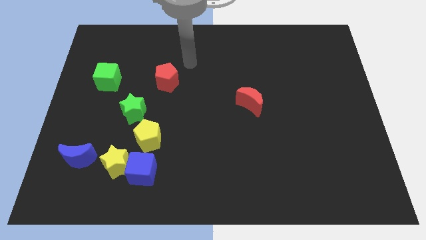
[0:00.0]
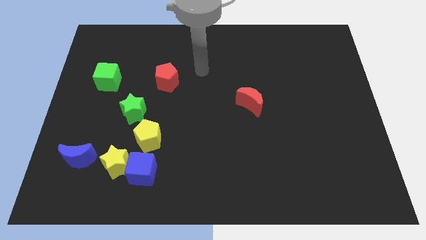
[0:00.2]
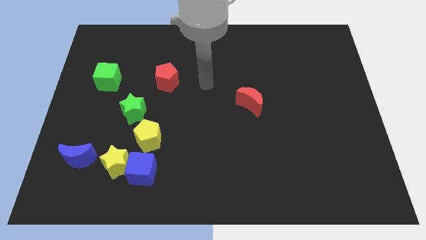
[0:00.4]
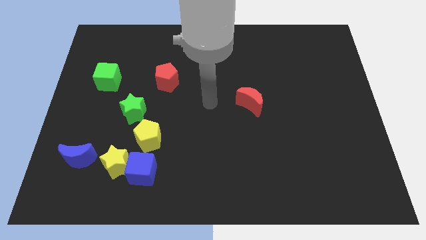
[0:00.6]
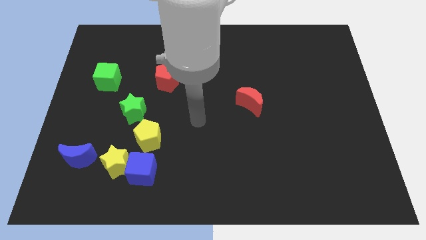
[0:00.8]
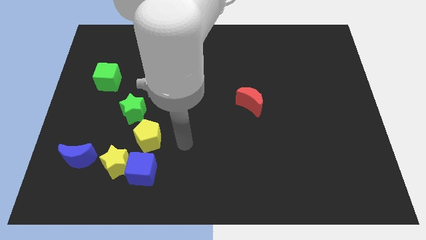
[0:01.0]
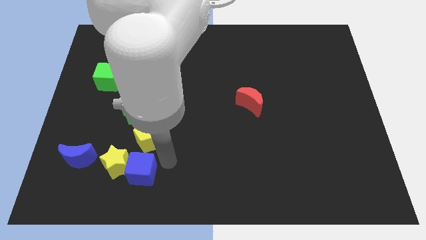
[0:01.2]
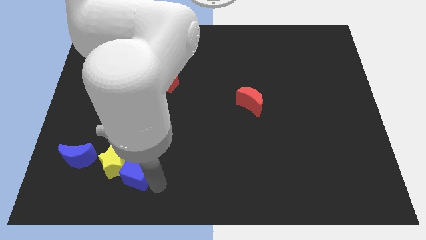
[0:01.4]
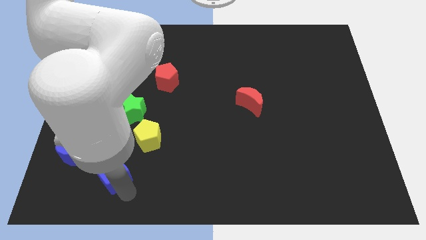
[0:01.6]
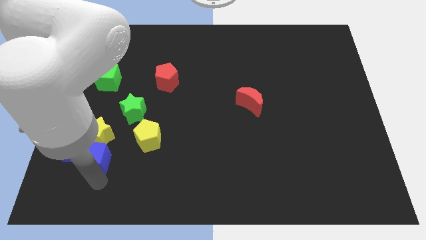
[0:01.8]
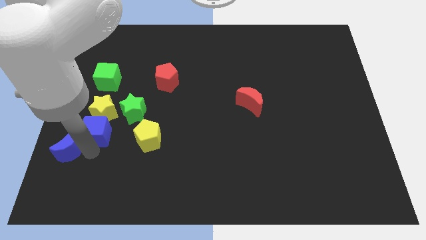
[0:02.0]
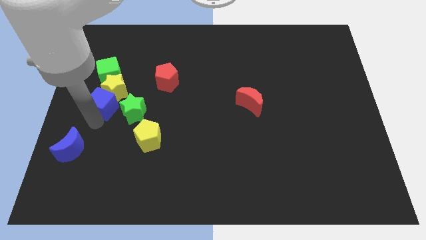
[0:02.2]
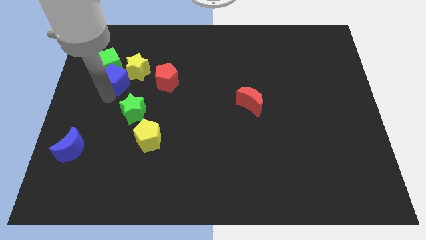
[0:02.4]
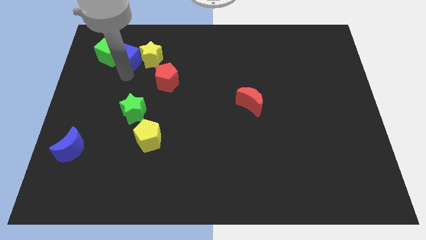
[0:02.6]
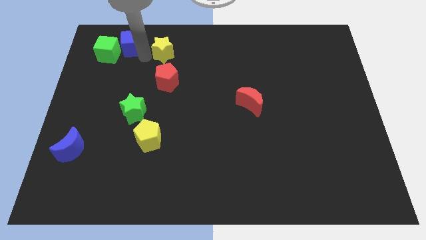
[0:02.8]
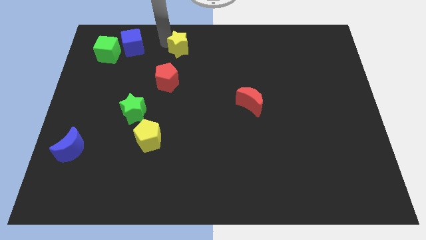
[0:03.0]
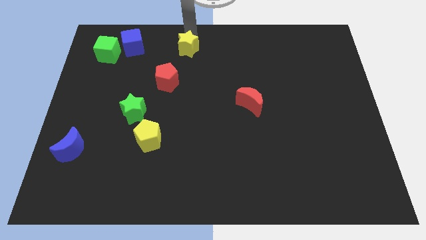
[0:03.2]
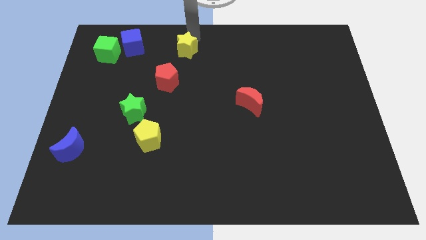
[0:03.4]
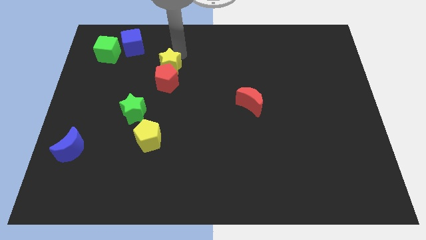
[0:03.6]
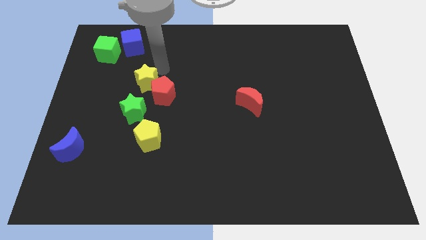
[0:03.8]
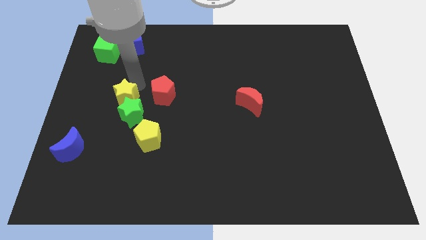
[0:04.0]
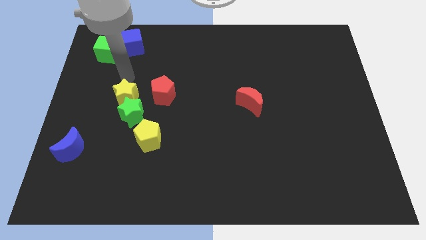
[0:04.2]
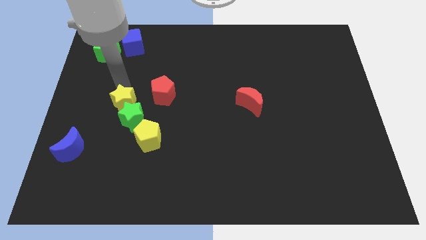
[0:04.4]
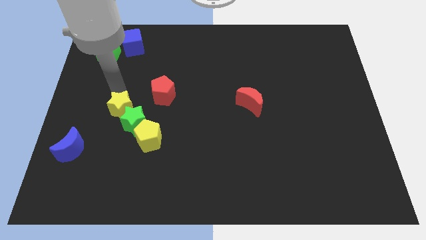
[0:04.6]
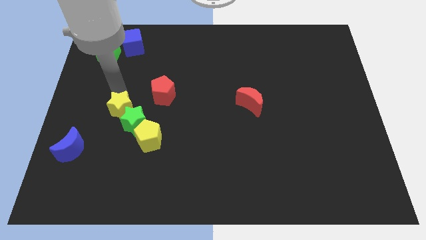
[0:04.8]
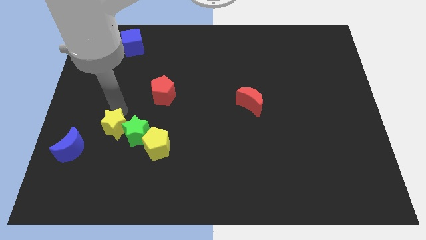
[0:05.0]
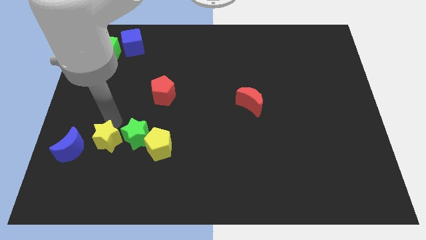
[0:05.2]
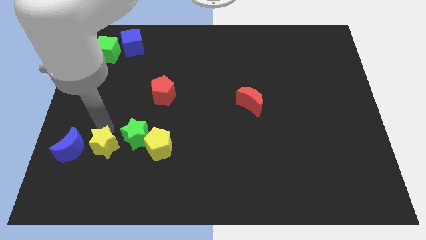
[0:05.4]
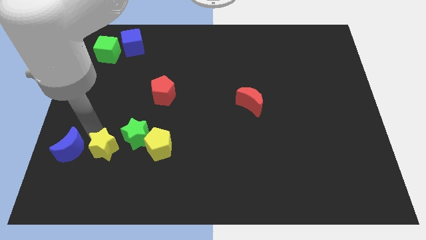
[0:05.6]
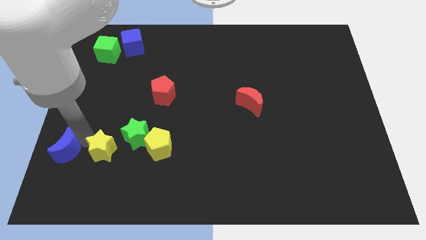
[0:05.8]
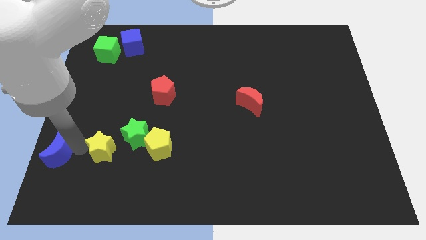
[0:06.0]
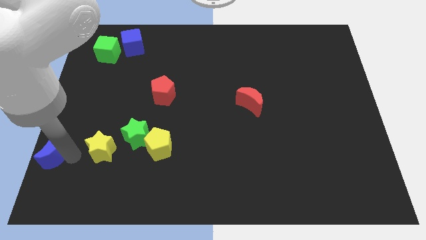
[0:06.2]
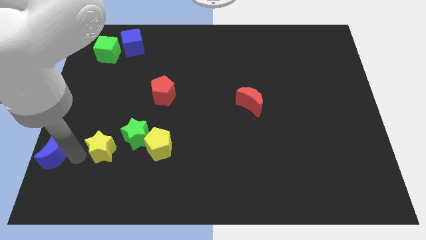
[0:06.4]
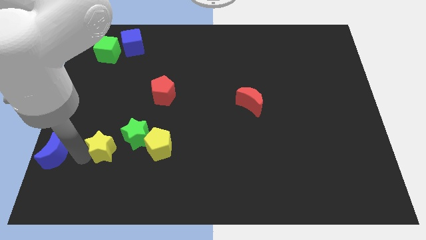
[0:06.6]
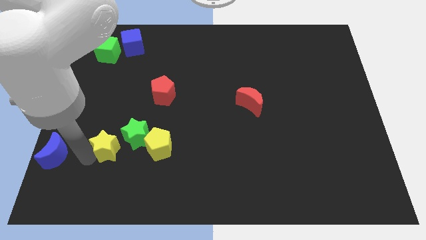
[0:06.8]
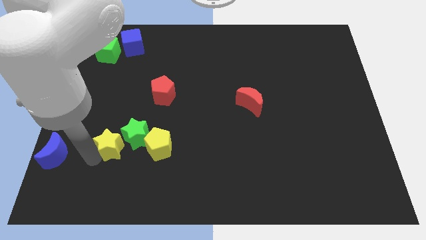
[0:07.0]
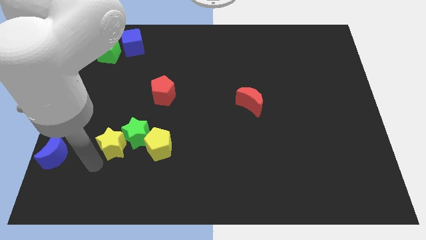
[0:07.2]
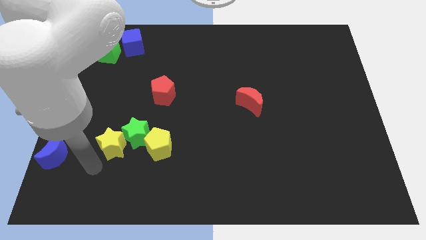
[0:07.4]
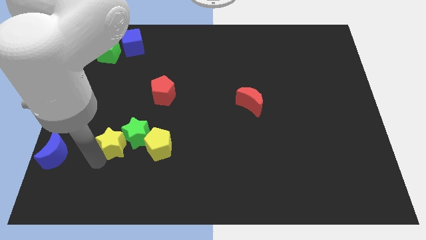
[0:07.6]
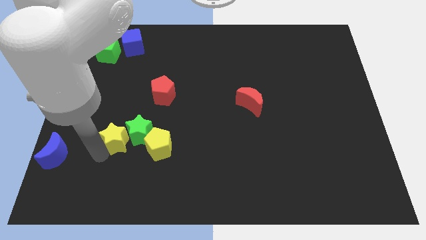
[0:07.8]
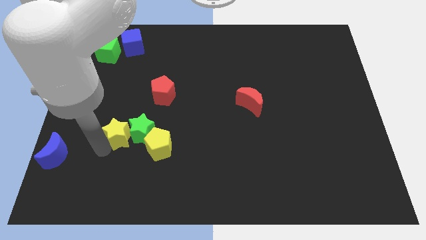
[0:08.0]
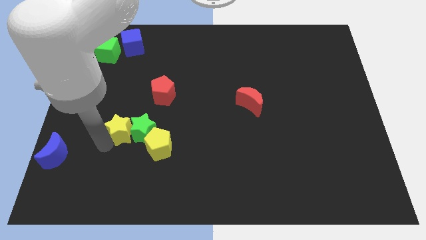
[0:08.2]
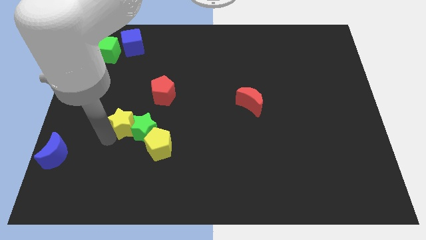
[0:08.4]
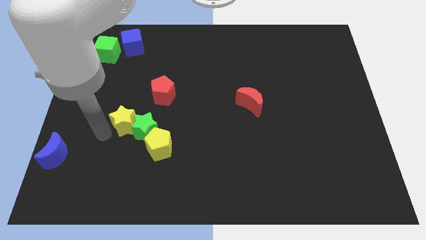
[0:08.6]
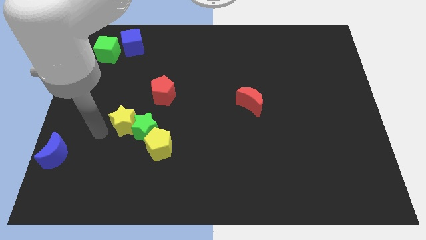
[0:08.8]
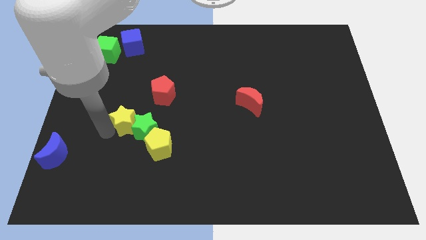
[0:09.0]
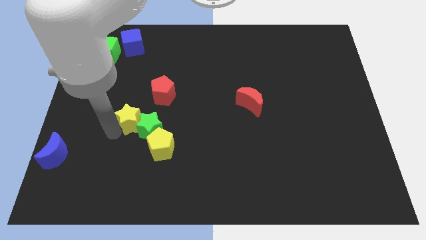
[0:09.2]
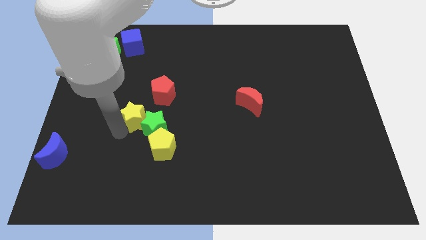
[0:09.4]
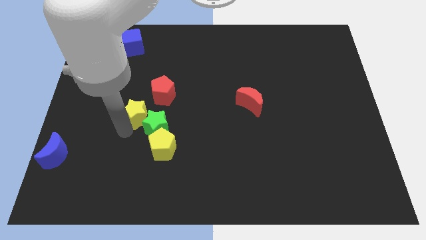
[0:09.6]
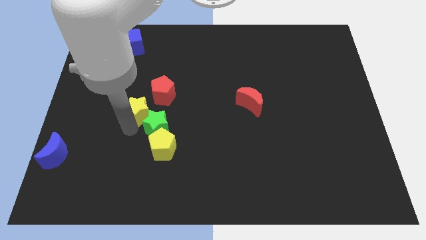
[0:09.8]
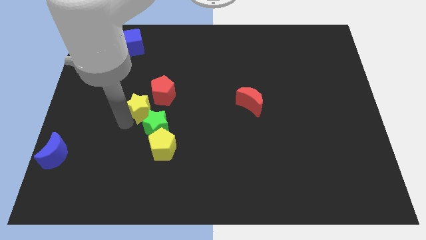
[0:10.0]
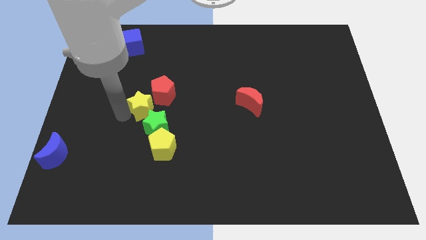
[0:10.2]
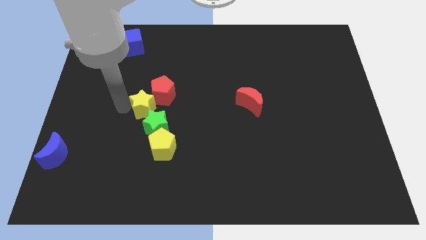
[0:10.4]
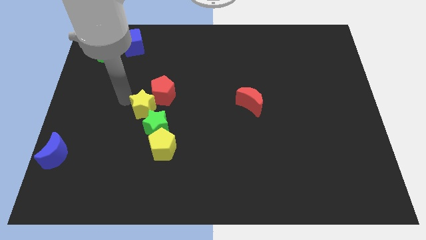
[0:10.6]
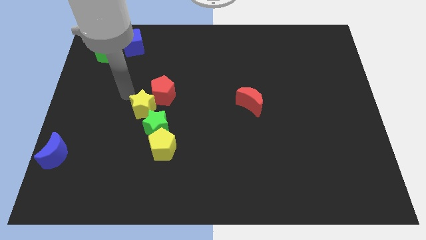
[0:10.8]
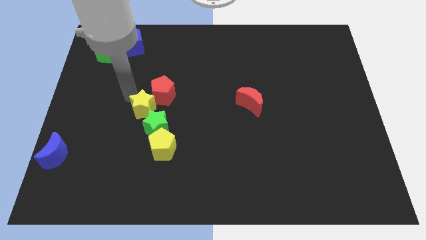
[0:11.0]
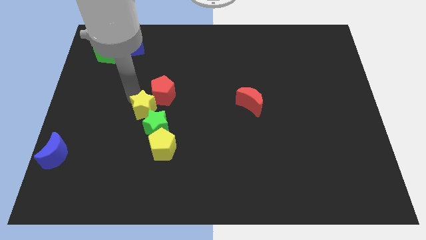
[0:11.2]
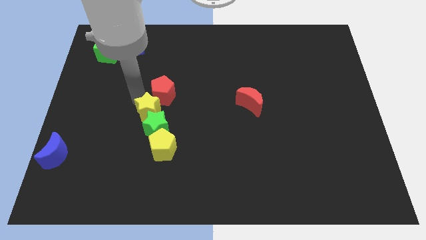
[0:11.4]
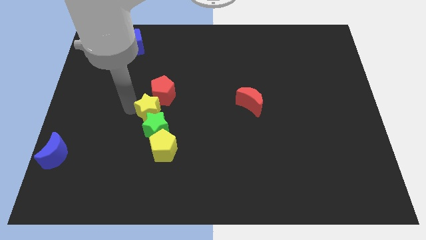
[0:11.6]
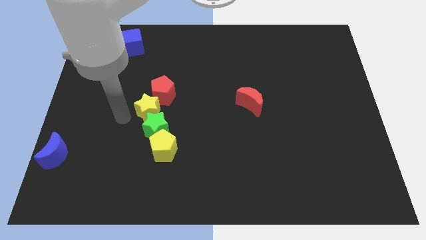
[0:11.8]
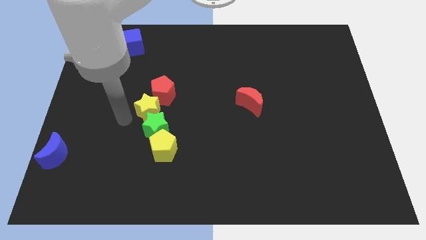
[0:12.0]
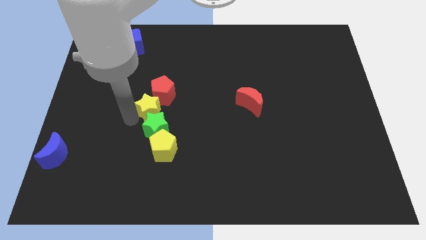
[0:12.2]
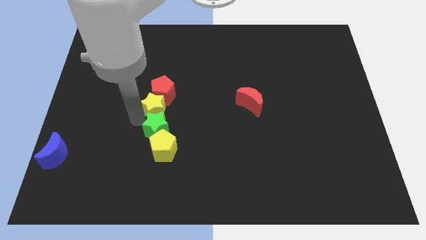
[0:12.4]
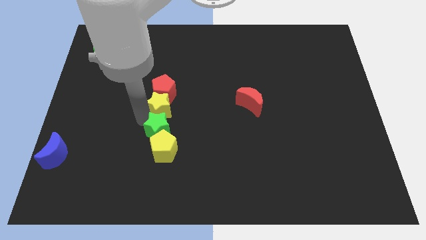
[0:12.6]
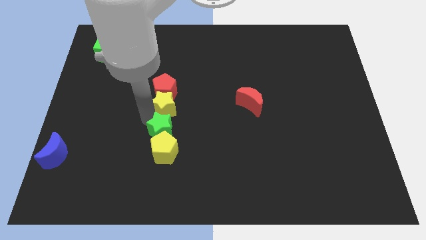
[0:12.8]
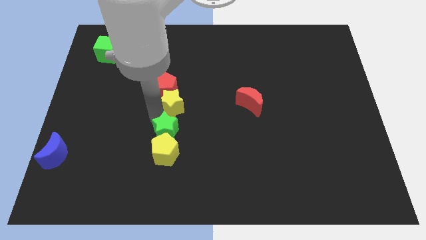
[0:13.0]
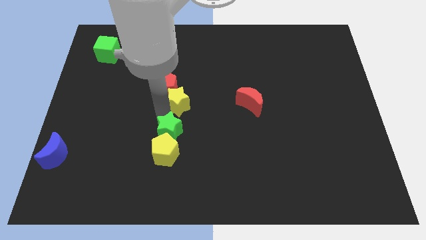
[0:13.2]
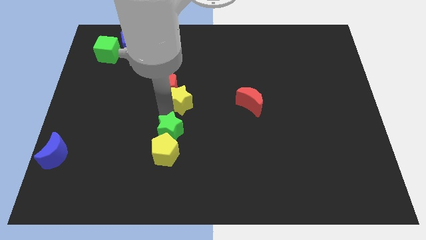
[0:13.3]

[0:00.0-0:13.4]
slide the yellow star up and to the right

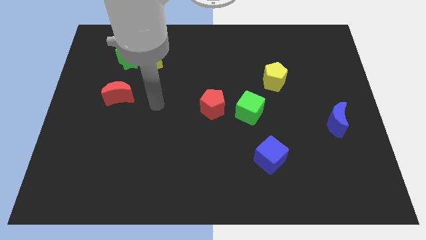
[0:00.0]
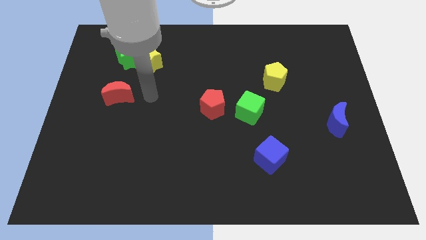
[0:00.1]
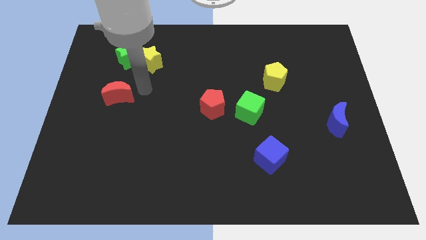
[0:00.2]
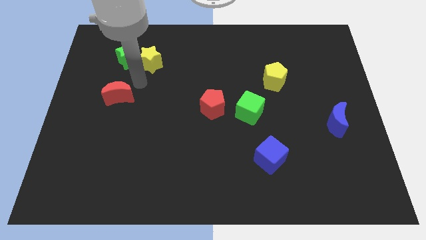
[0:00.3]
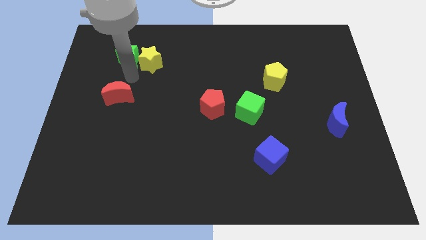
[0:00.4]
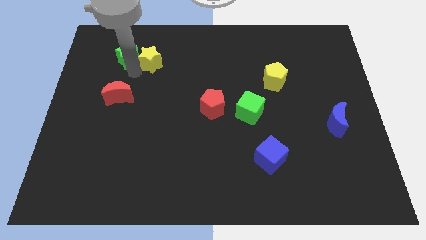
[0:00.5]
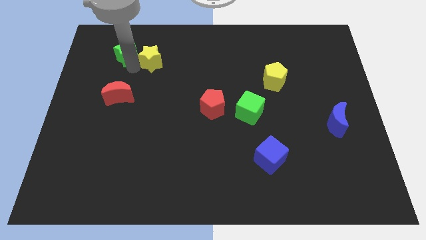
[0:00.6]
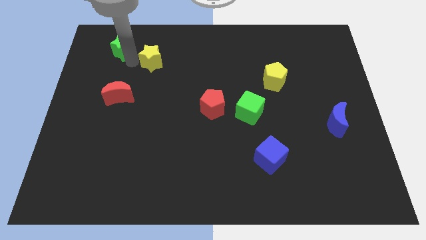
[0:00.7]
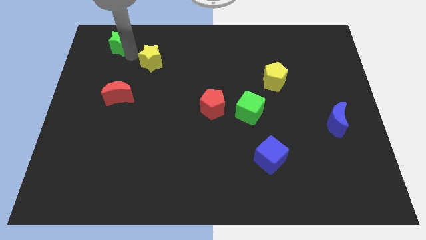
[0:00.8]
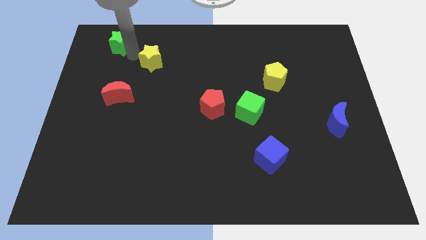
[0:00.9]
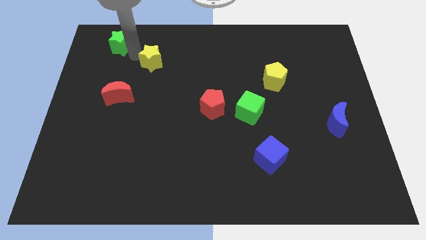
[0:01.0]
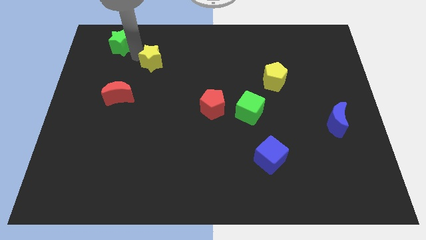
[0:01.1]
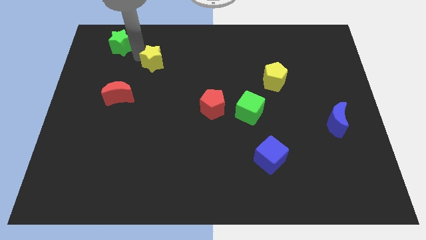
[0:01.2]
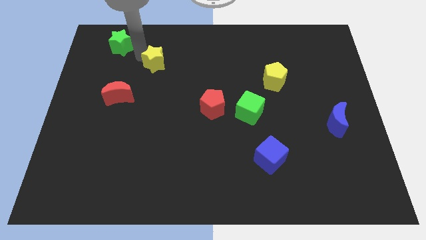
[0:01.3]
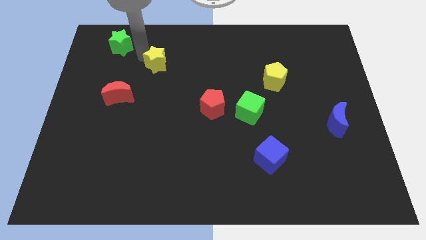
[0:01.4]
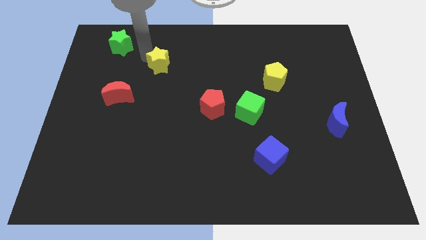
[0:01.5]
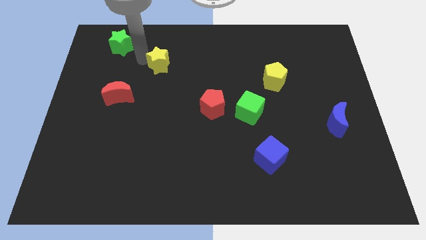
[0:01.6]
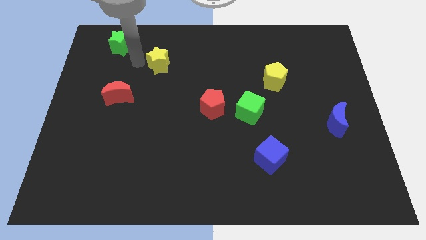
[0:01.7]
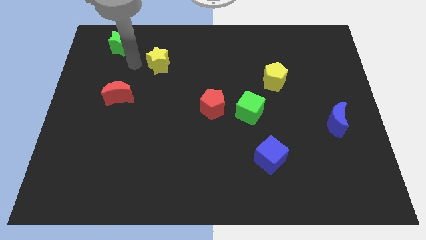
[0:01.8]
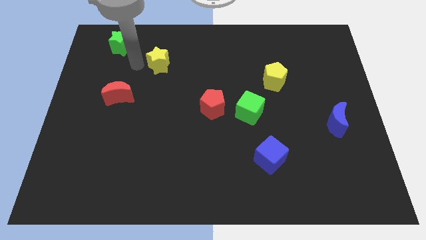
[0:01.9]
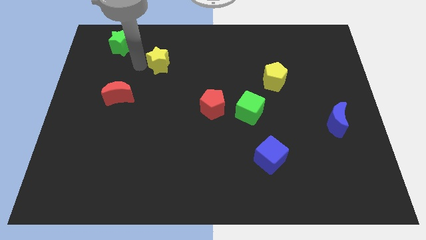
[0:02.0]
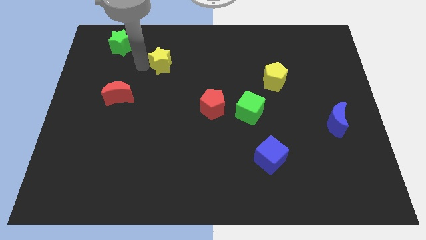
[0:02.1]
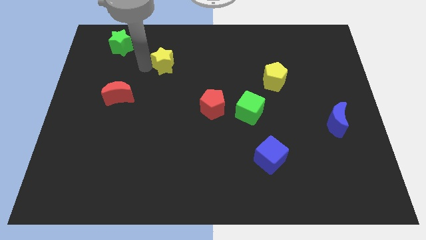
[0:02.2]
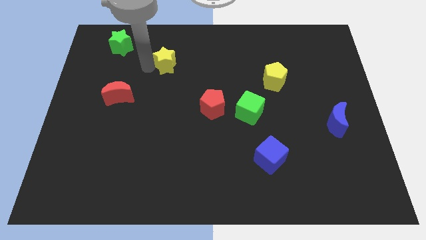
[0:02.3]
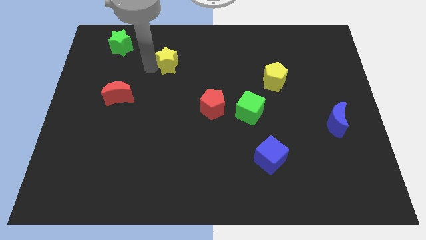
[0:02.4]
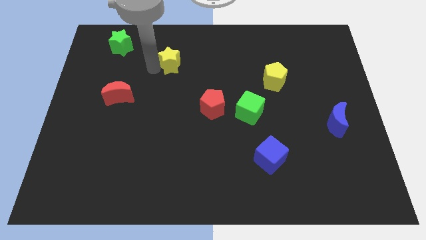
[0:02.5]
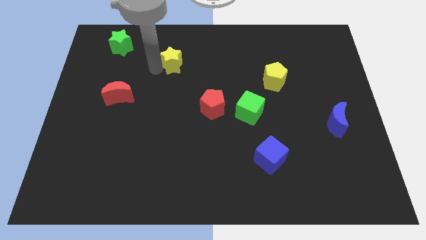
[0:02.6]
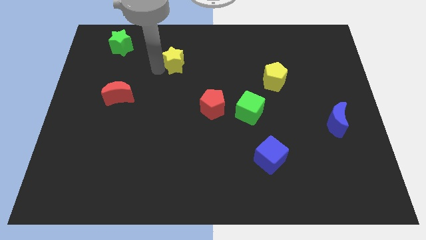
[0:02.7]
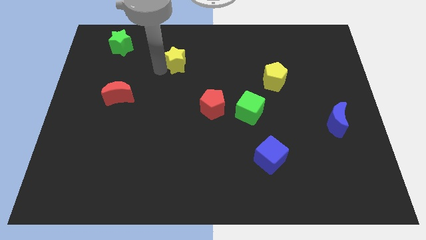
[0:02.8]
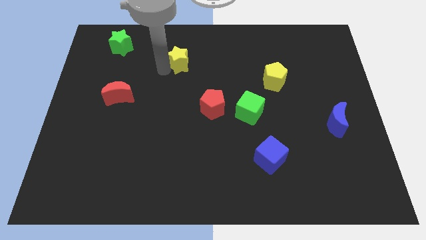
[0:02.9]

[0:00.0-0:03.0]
slightly move the yellow star right
